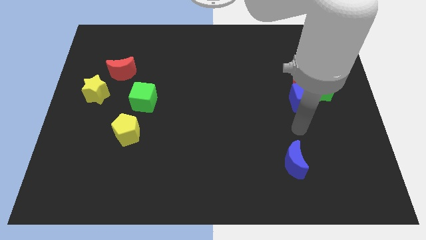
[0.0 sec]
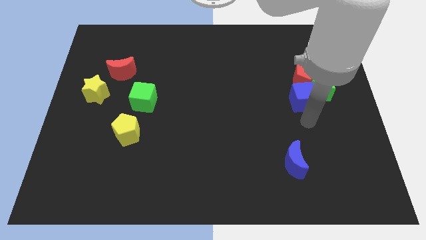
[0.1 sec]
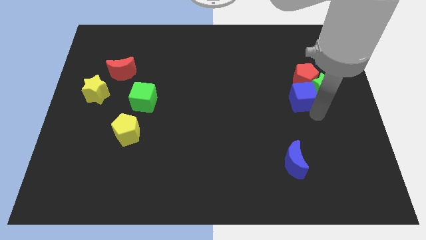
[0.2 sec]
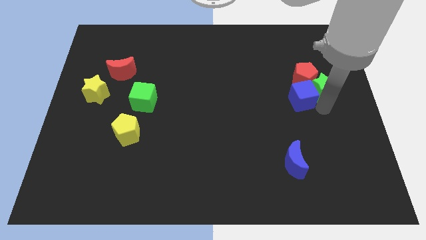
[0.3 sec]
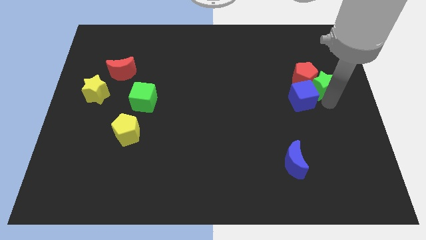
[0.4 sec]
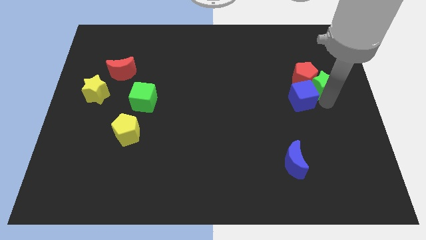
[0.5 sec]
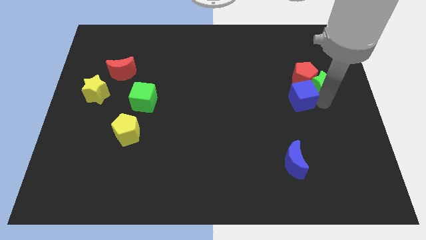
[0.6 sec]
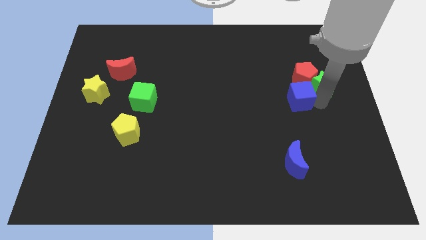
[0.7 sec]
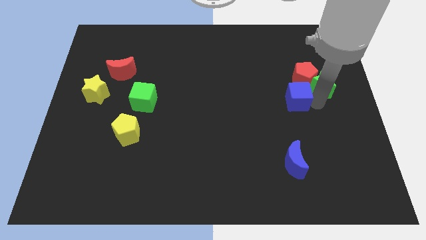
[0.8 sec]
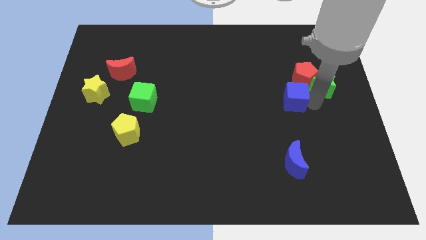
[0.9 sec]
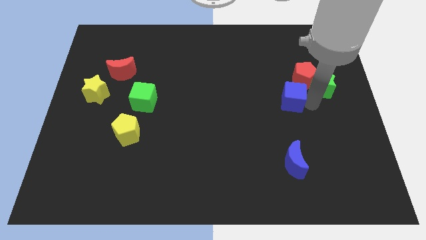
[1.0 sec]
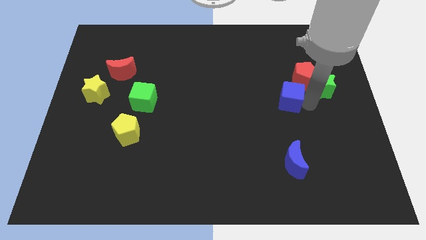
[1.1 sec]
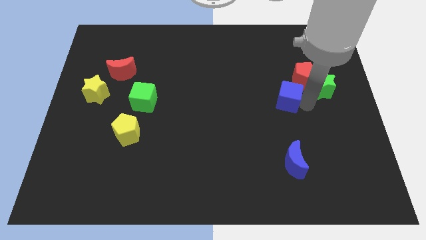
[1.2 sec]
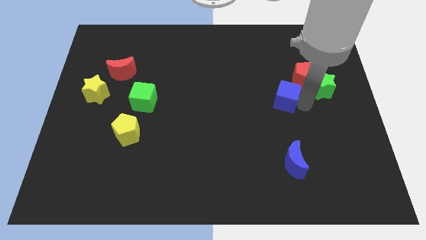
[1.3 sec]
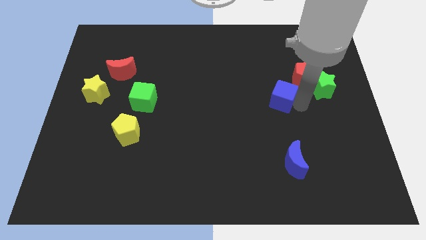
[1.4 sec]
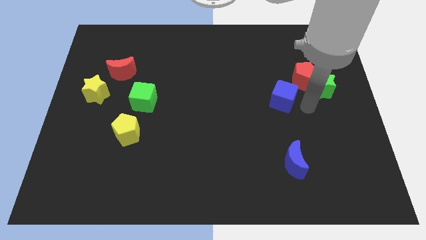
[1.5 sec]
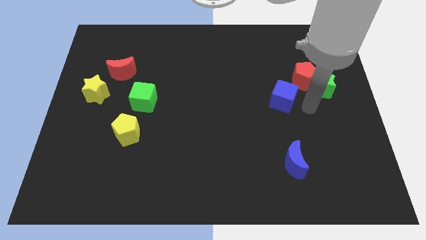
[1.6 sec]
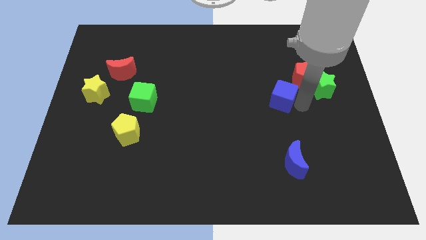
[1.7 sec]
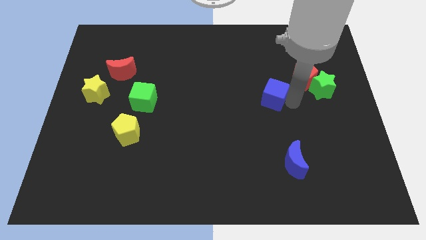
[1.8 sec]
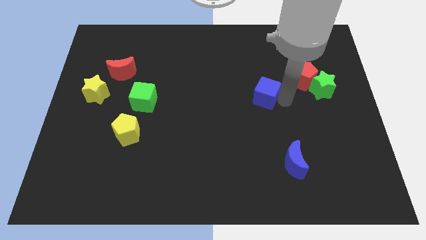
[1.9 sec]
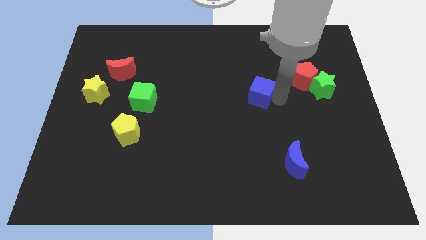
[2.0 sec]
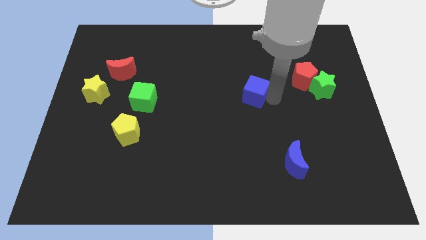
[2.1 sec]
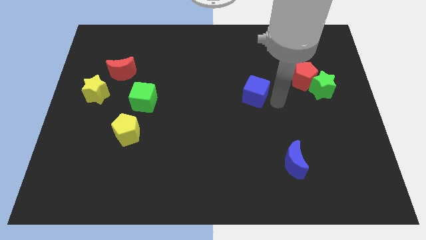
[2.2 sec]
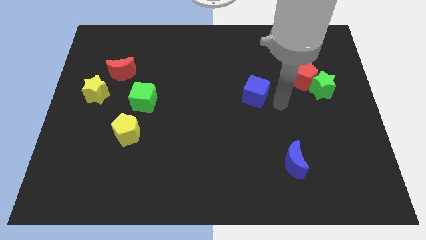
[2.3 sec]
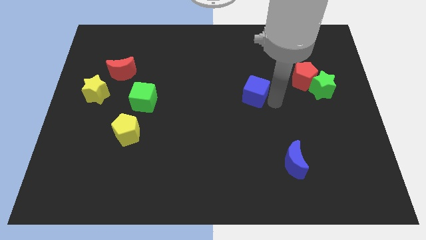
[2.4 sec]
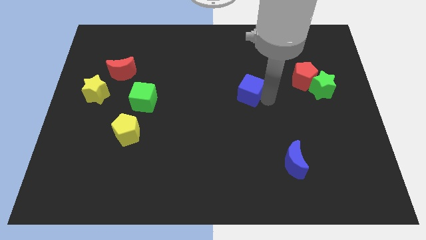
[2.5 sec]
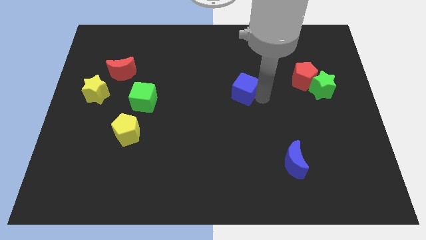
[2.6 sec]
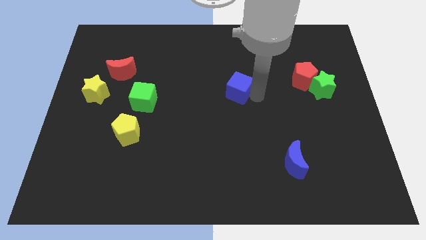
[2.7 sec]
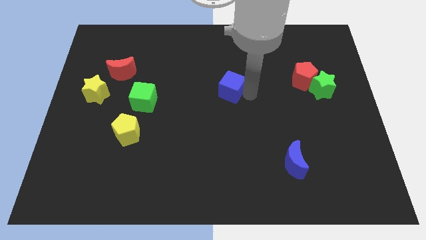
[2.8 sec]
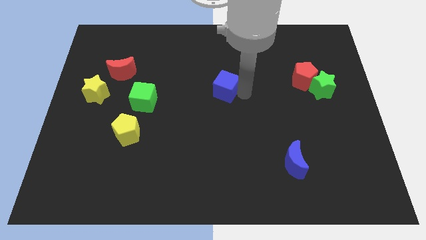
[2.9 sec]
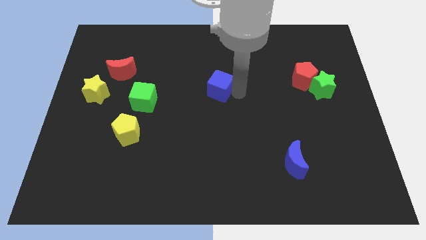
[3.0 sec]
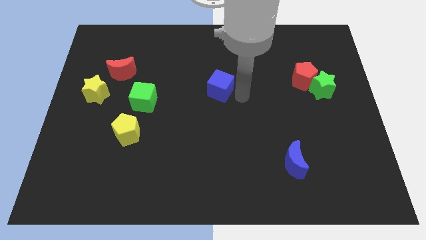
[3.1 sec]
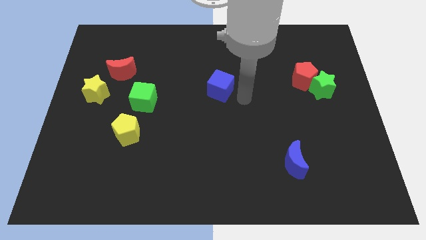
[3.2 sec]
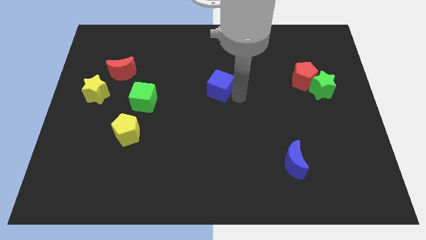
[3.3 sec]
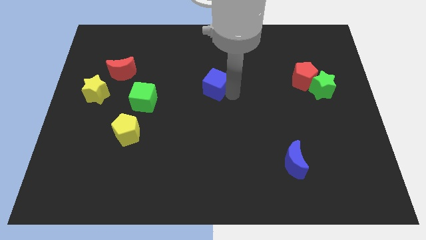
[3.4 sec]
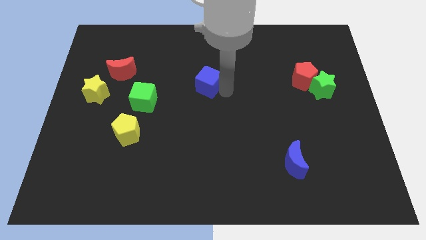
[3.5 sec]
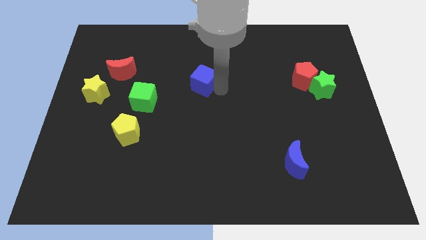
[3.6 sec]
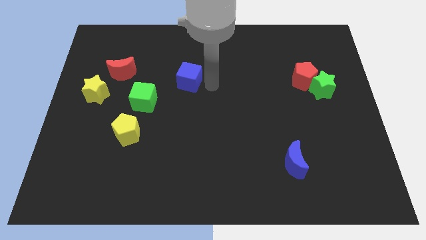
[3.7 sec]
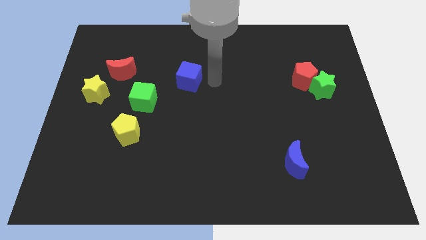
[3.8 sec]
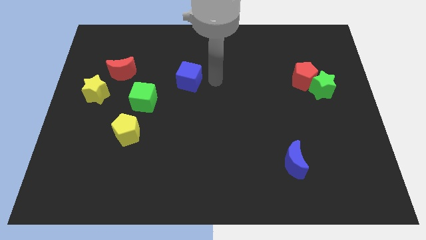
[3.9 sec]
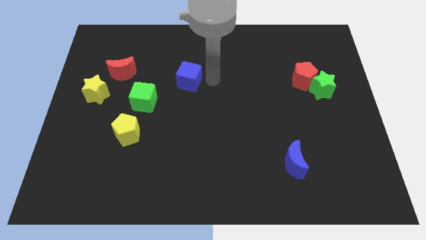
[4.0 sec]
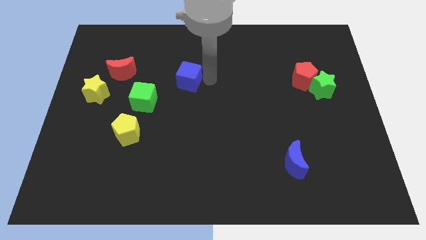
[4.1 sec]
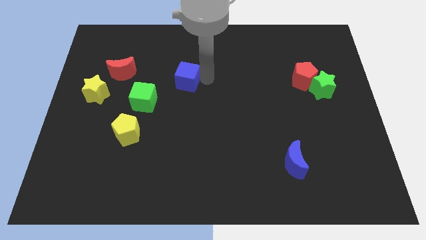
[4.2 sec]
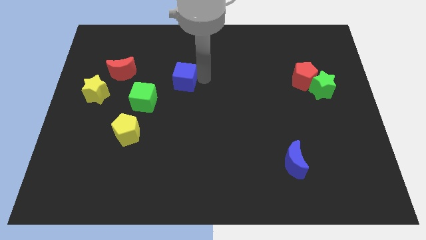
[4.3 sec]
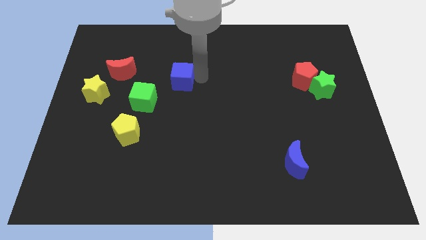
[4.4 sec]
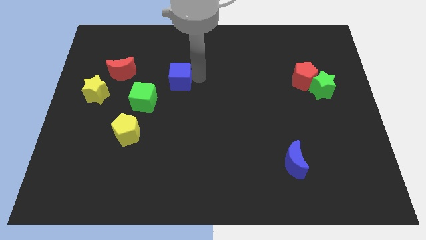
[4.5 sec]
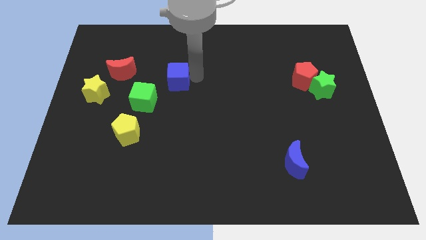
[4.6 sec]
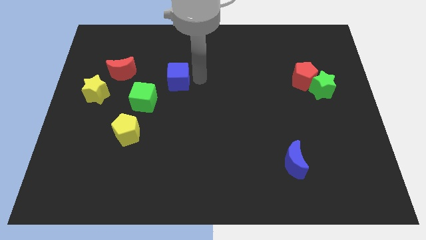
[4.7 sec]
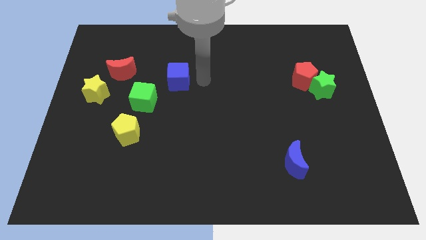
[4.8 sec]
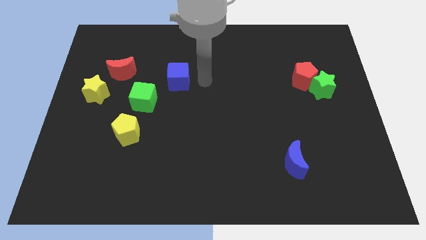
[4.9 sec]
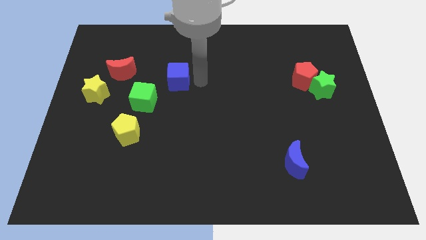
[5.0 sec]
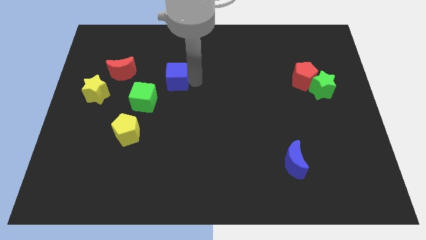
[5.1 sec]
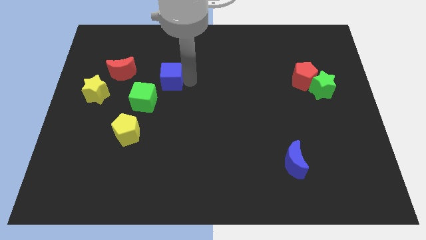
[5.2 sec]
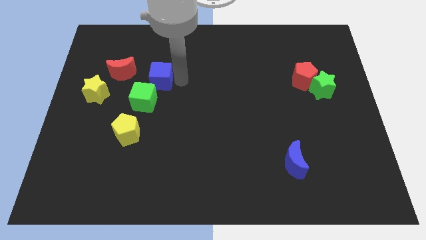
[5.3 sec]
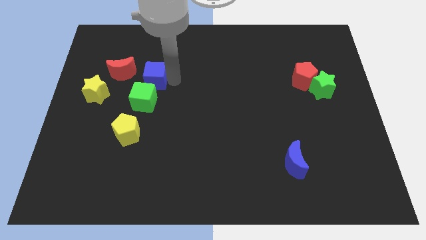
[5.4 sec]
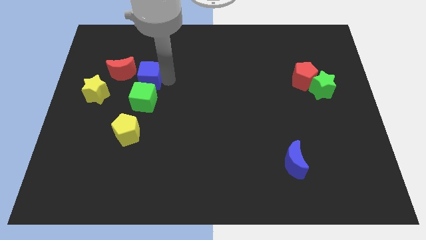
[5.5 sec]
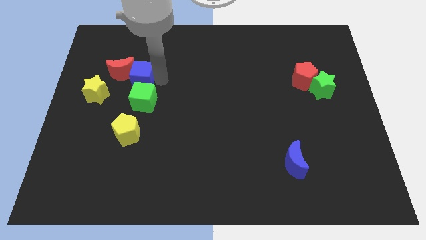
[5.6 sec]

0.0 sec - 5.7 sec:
slide the blue cube close to the red moon
